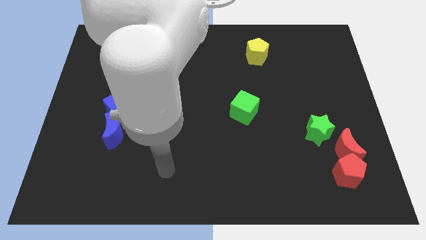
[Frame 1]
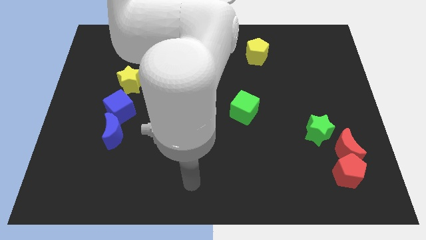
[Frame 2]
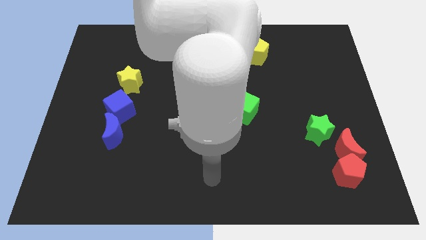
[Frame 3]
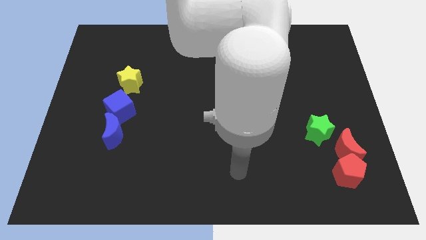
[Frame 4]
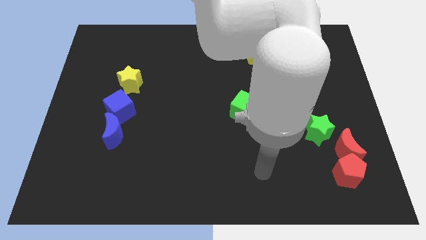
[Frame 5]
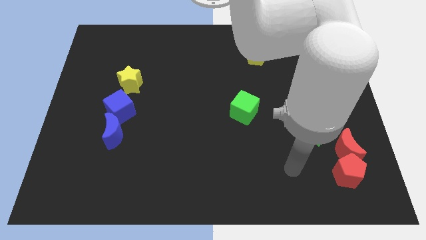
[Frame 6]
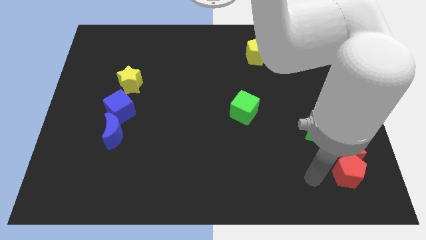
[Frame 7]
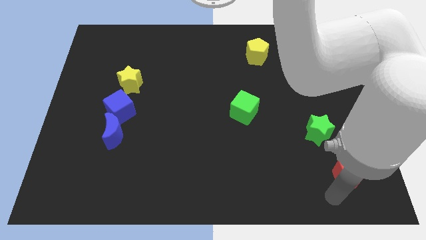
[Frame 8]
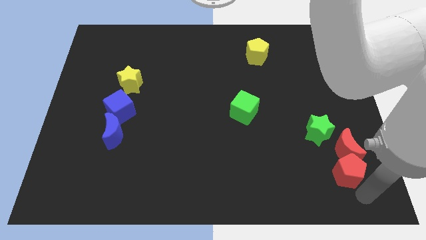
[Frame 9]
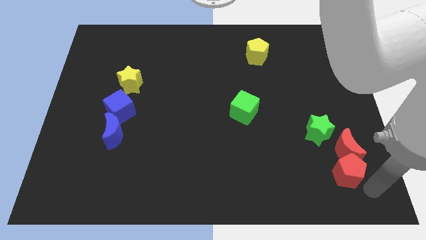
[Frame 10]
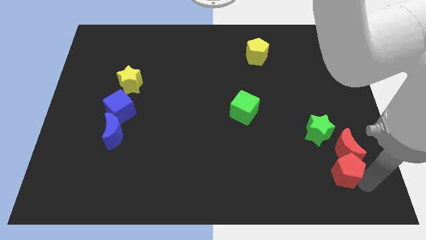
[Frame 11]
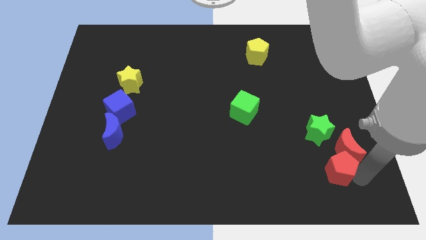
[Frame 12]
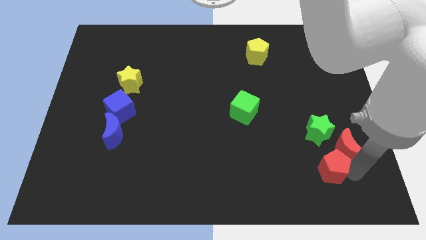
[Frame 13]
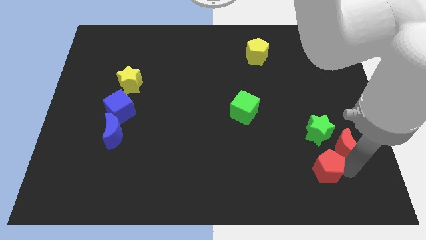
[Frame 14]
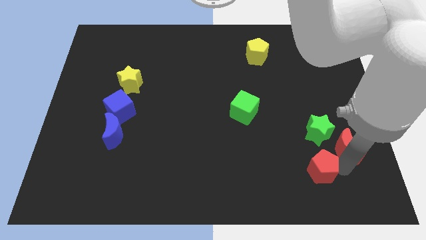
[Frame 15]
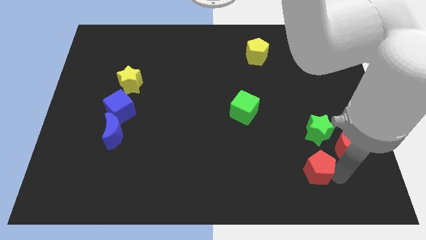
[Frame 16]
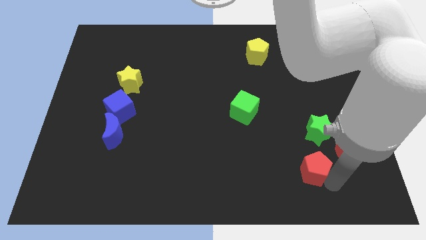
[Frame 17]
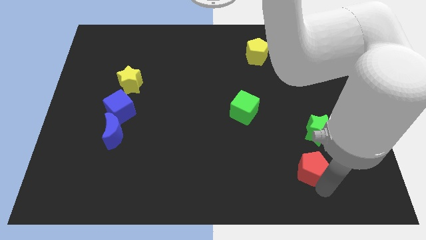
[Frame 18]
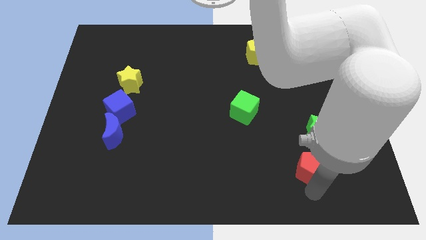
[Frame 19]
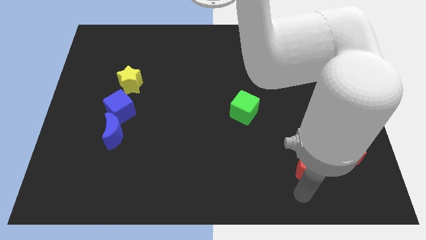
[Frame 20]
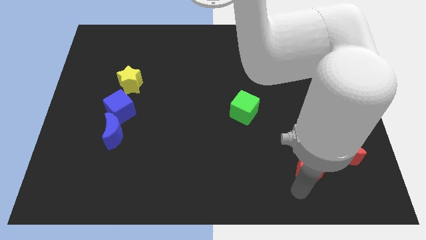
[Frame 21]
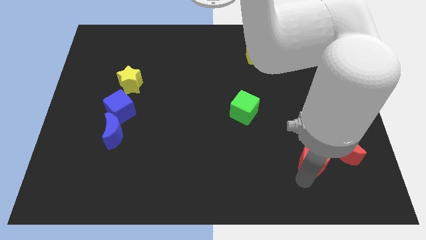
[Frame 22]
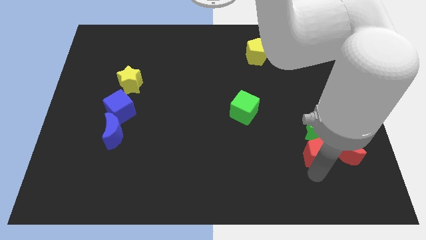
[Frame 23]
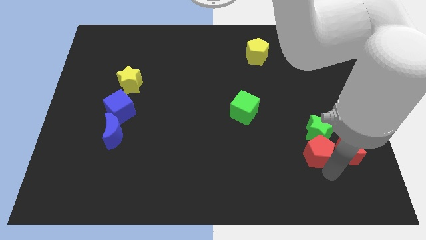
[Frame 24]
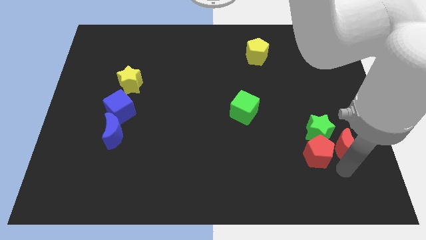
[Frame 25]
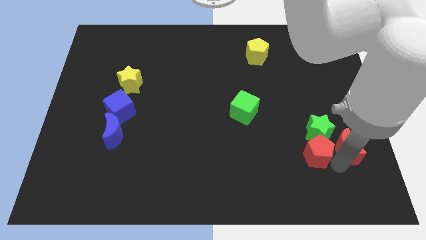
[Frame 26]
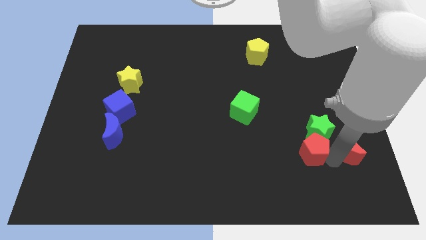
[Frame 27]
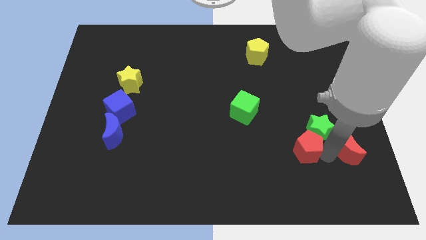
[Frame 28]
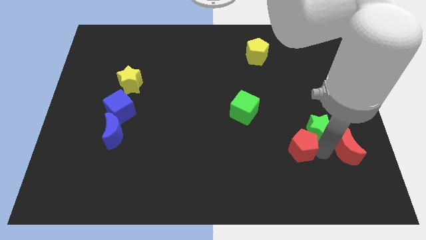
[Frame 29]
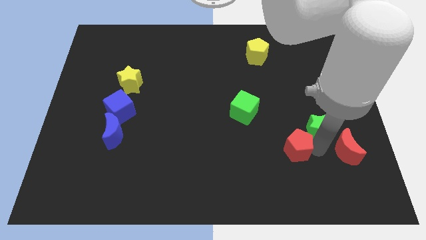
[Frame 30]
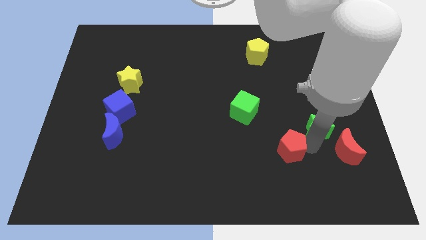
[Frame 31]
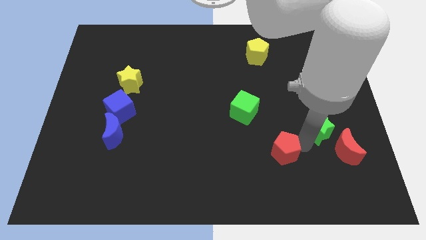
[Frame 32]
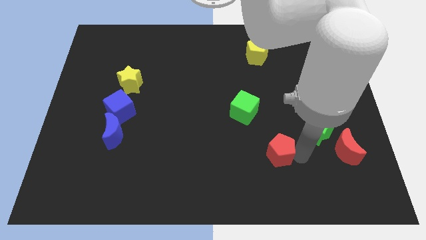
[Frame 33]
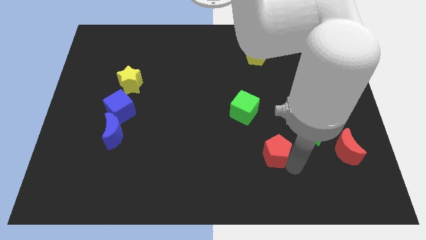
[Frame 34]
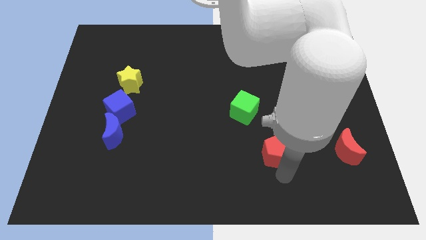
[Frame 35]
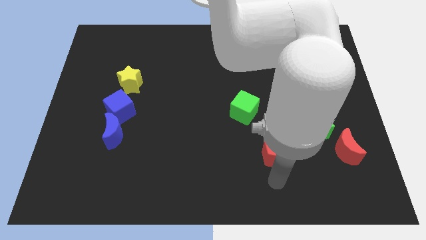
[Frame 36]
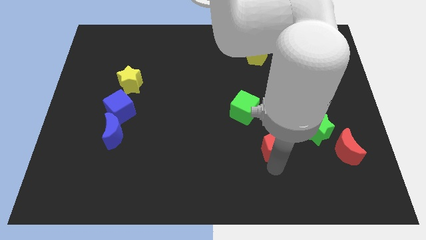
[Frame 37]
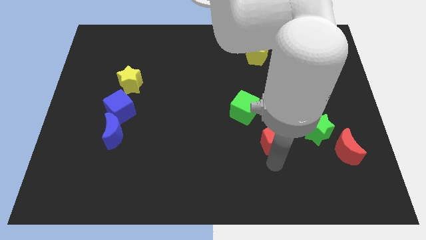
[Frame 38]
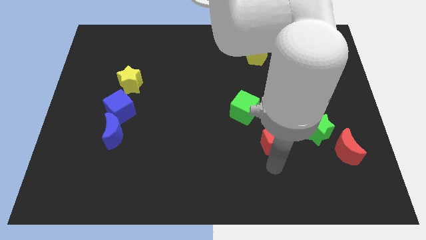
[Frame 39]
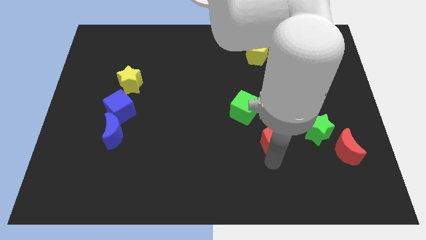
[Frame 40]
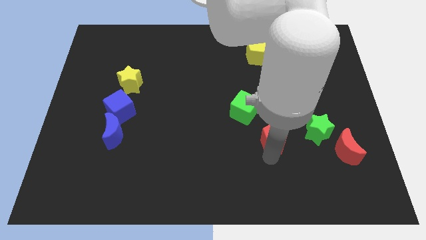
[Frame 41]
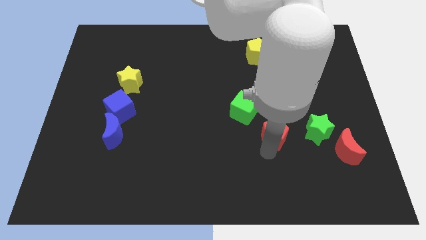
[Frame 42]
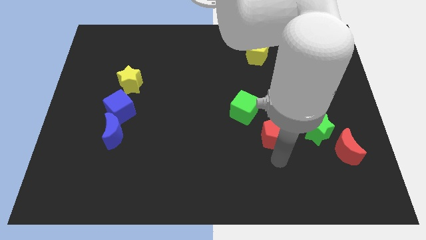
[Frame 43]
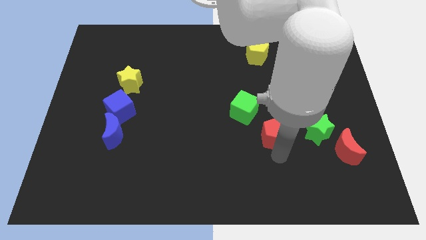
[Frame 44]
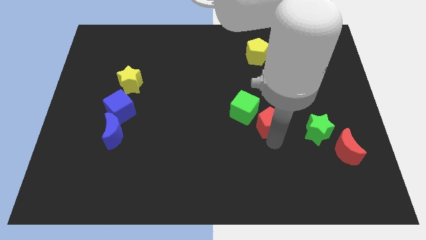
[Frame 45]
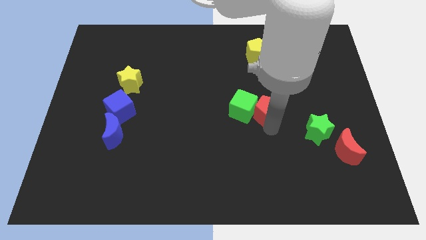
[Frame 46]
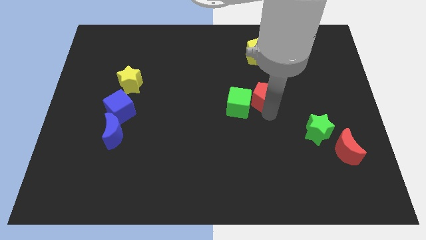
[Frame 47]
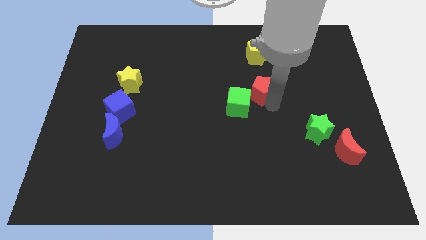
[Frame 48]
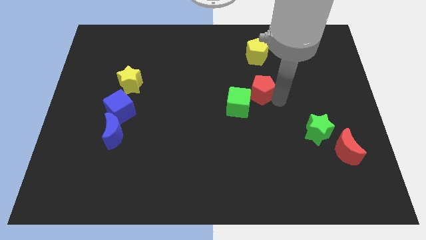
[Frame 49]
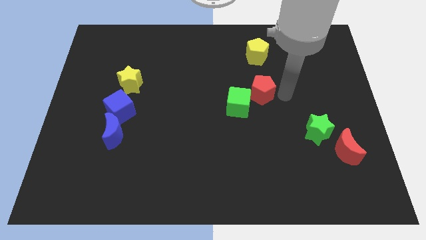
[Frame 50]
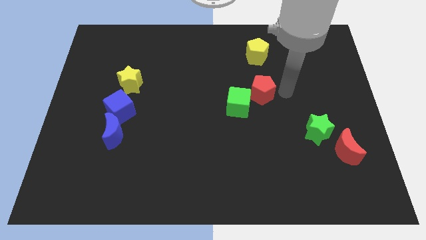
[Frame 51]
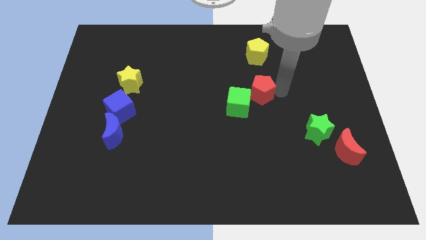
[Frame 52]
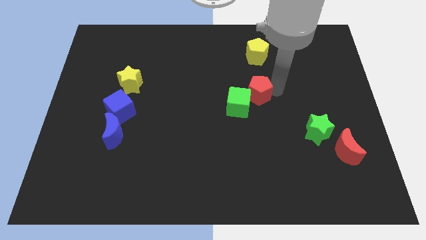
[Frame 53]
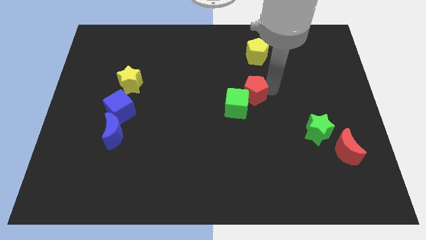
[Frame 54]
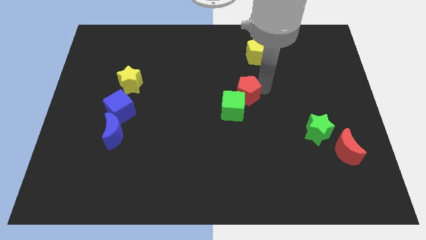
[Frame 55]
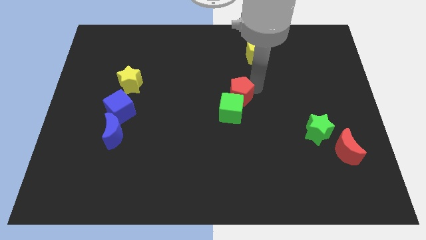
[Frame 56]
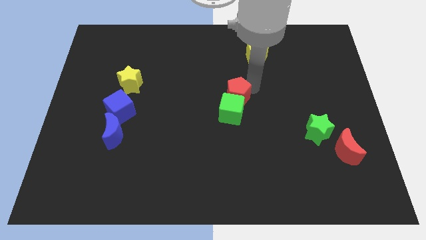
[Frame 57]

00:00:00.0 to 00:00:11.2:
put the red pentagon to the top left side of the green cube

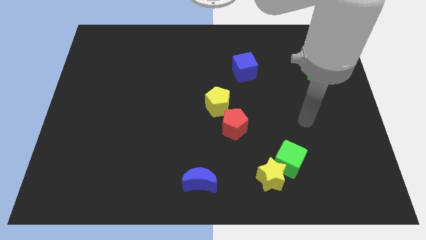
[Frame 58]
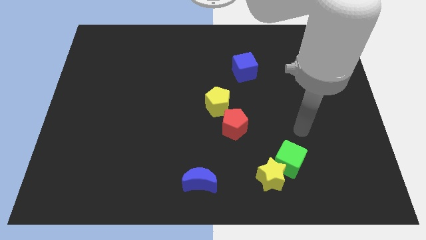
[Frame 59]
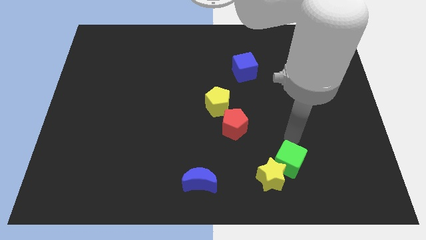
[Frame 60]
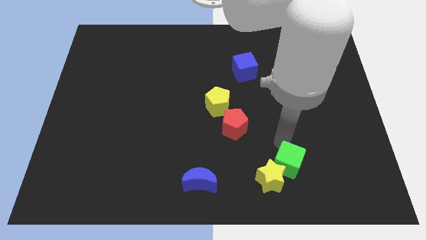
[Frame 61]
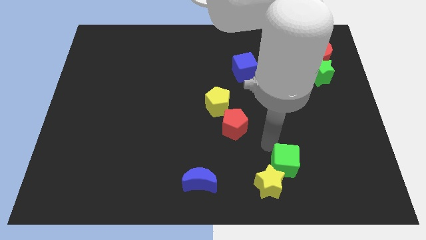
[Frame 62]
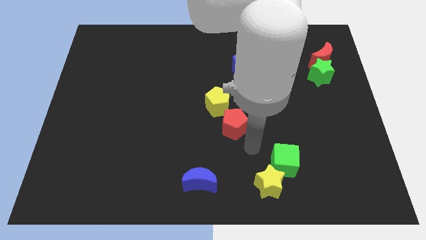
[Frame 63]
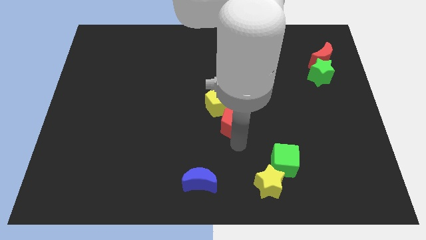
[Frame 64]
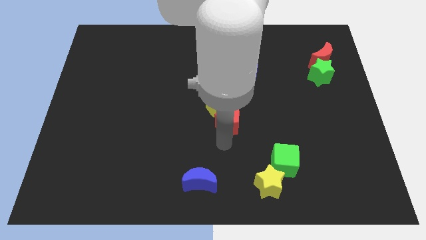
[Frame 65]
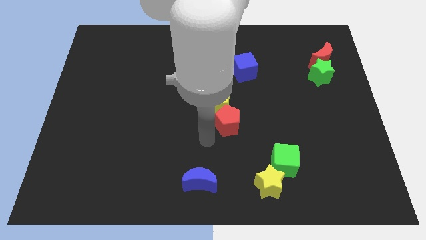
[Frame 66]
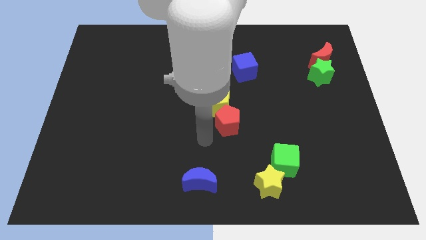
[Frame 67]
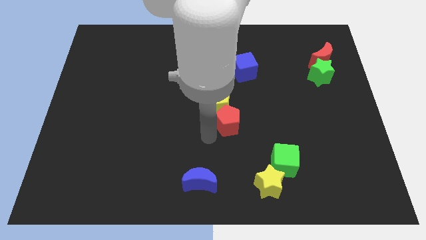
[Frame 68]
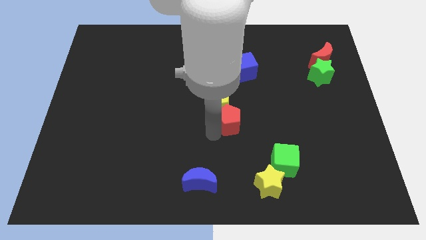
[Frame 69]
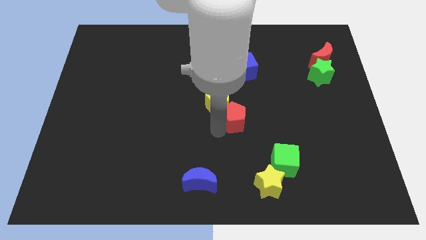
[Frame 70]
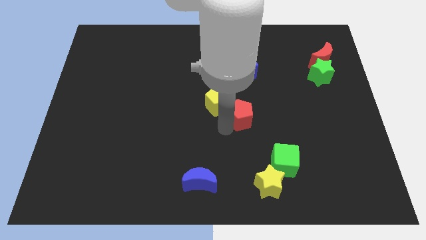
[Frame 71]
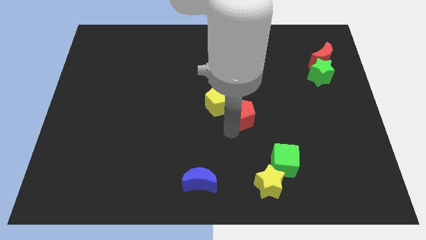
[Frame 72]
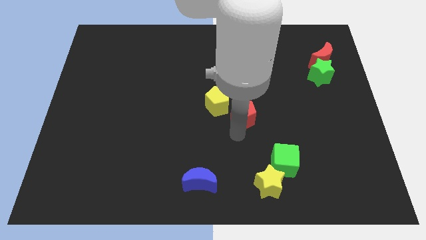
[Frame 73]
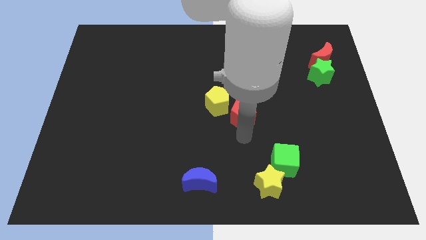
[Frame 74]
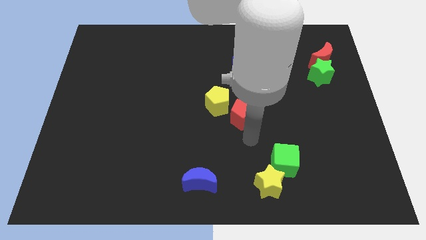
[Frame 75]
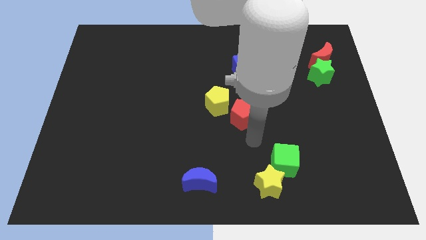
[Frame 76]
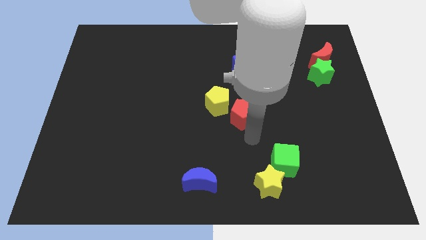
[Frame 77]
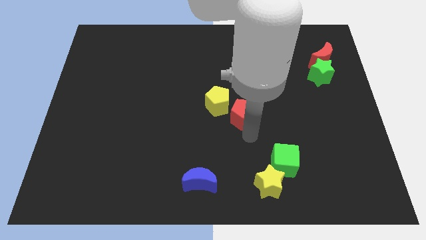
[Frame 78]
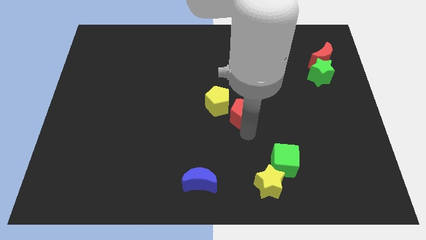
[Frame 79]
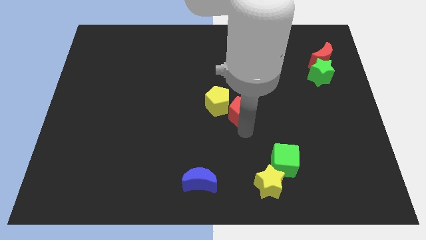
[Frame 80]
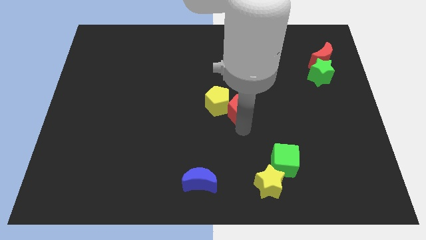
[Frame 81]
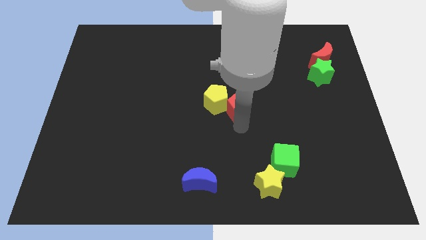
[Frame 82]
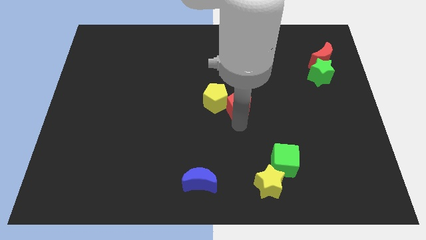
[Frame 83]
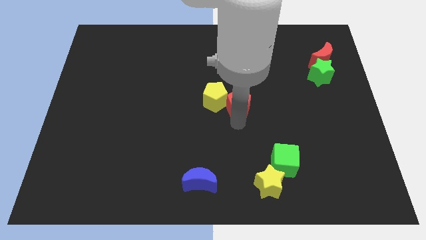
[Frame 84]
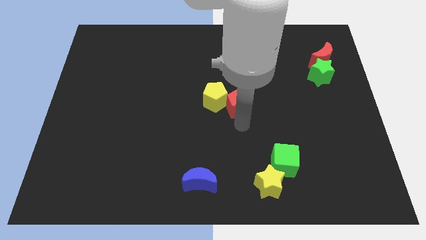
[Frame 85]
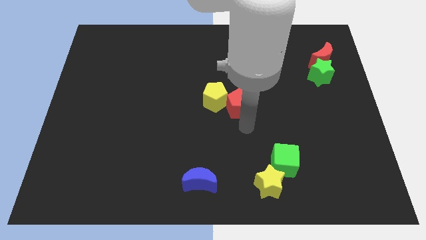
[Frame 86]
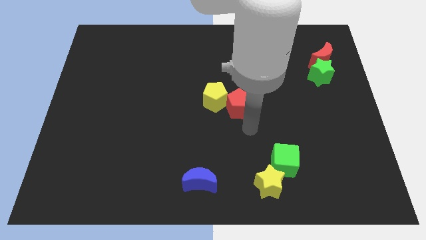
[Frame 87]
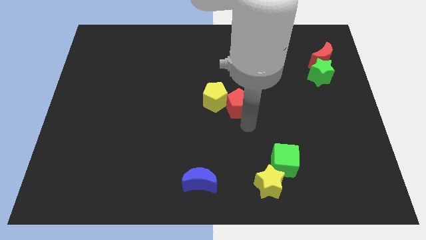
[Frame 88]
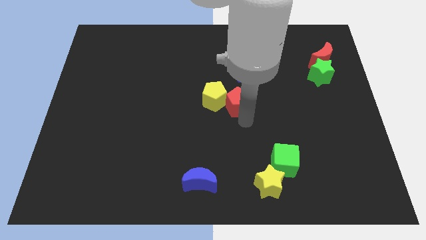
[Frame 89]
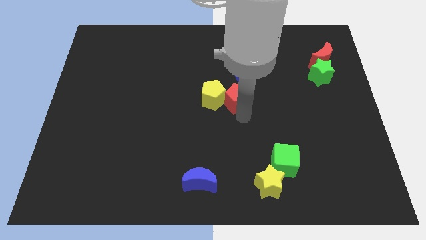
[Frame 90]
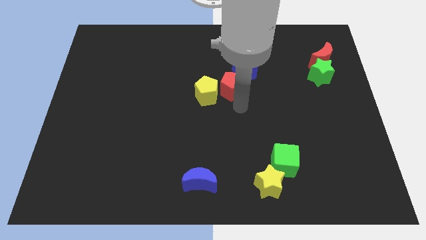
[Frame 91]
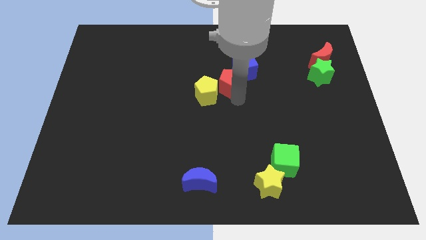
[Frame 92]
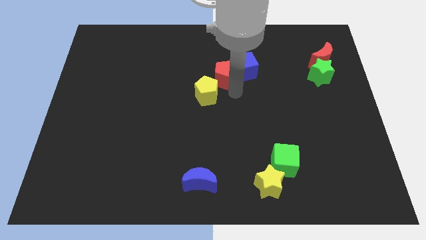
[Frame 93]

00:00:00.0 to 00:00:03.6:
push the red pentagon left of the blue cube
